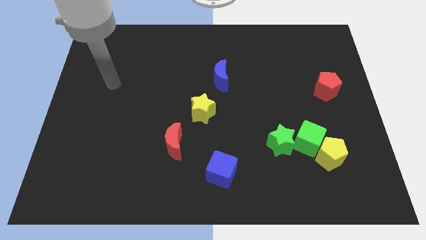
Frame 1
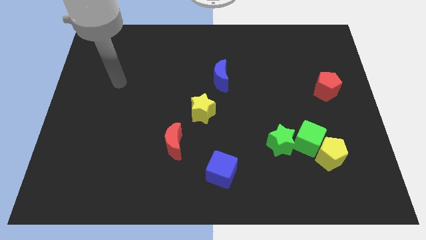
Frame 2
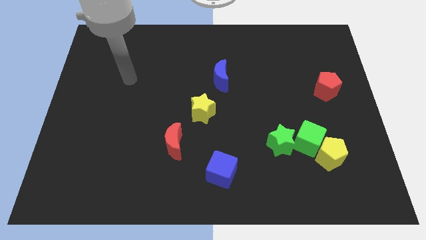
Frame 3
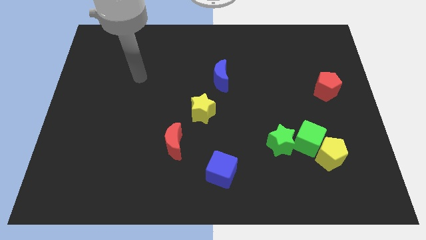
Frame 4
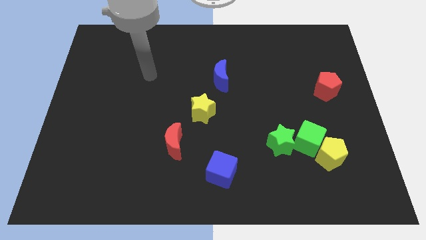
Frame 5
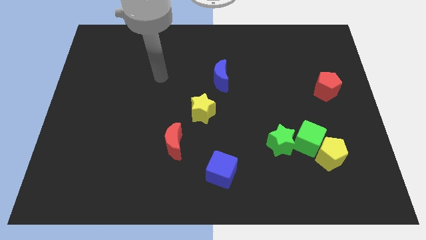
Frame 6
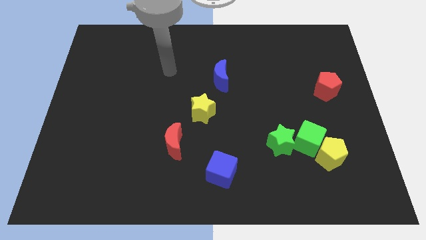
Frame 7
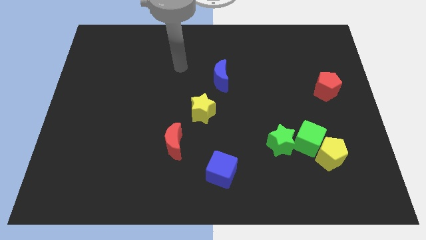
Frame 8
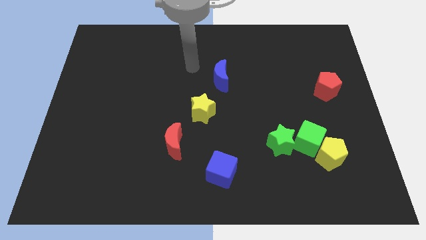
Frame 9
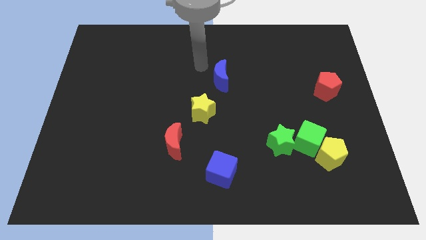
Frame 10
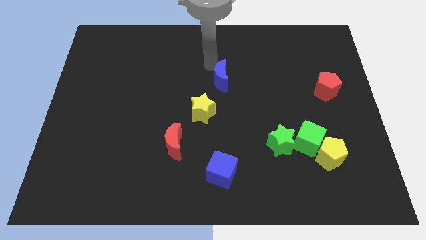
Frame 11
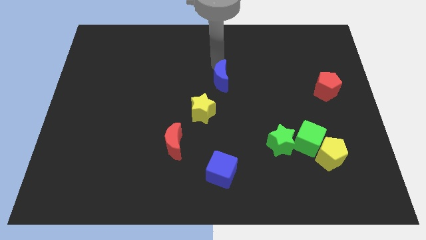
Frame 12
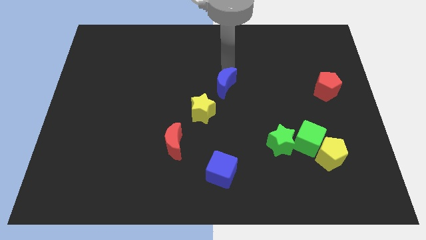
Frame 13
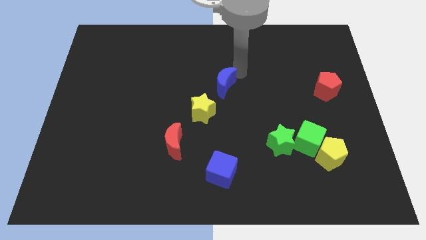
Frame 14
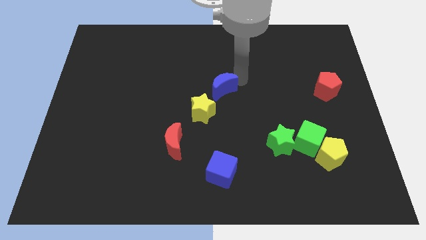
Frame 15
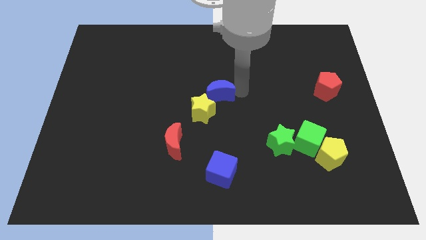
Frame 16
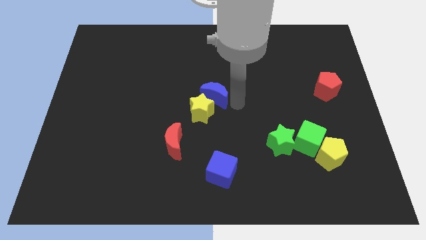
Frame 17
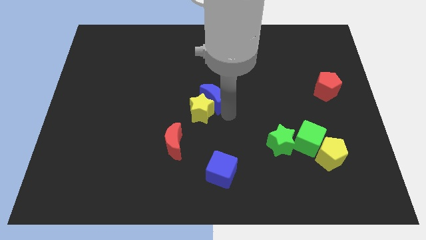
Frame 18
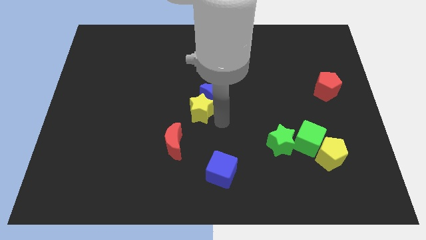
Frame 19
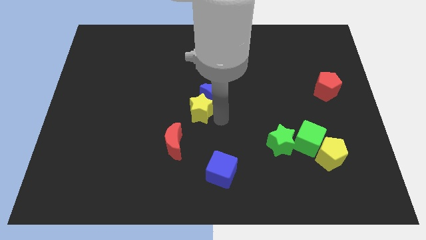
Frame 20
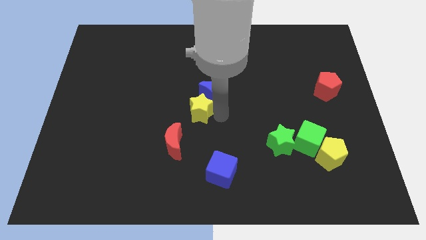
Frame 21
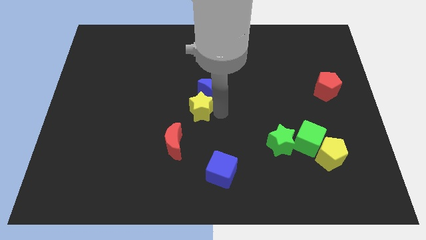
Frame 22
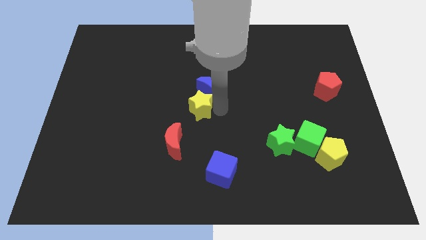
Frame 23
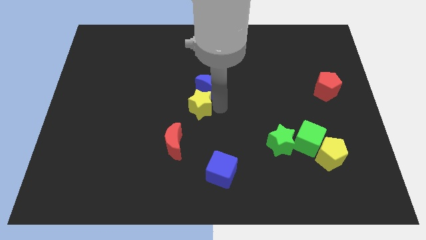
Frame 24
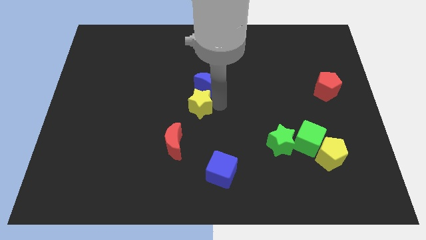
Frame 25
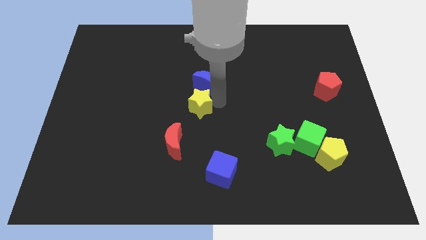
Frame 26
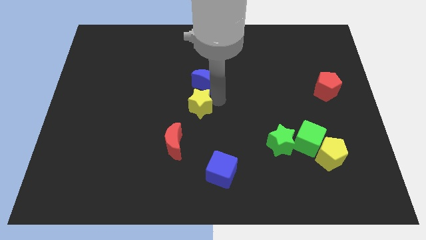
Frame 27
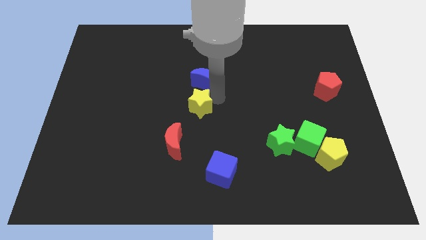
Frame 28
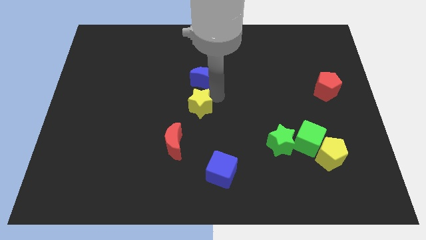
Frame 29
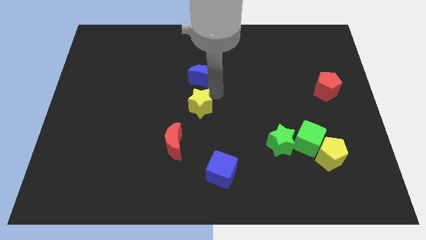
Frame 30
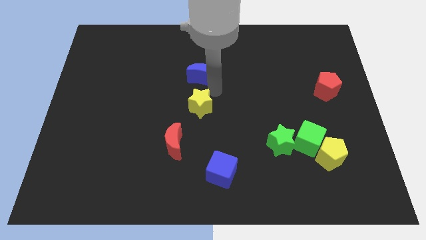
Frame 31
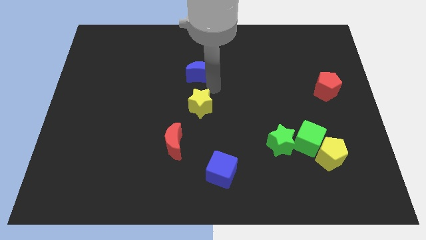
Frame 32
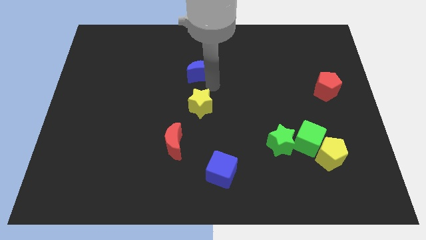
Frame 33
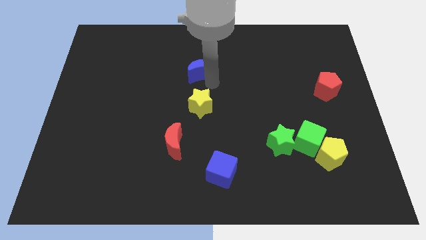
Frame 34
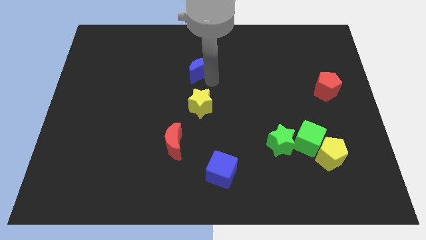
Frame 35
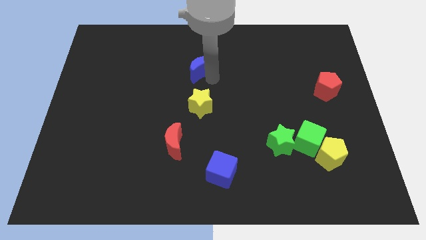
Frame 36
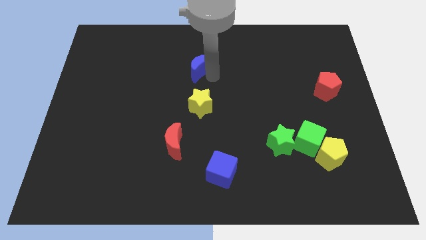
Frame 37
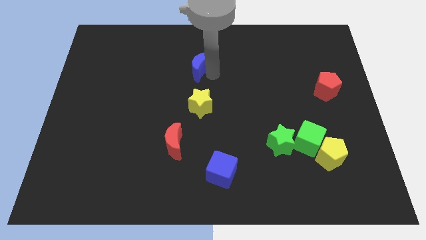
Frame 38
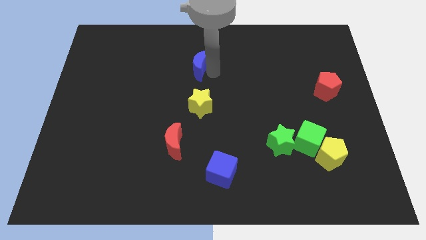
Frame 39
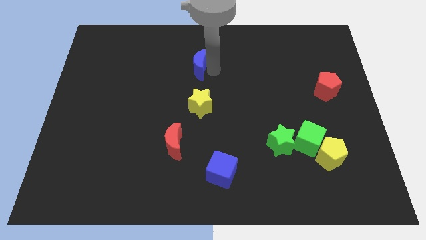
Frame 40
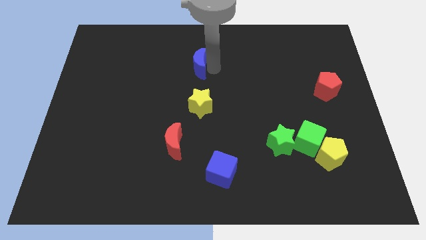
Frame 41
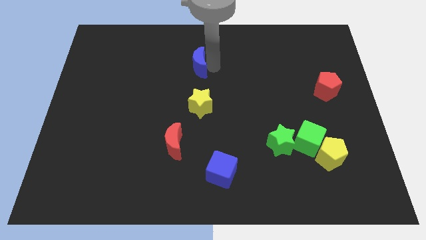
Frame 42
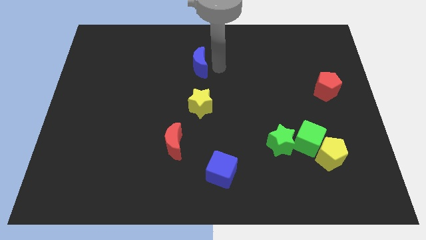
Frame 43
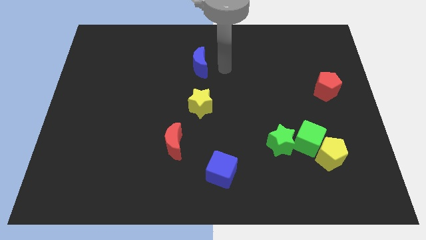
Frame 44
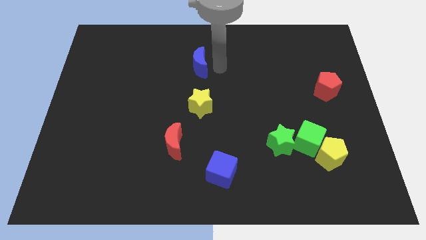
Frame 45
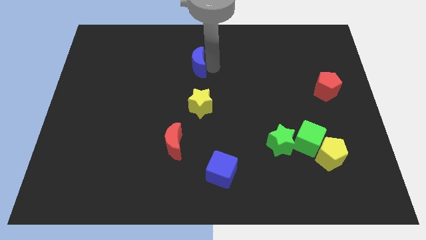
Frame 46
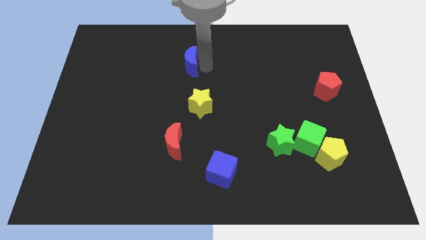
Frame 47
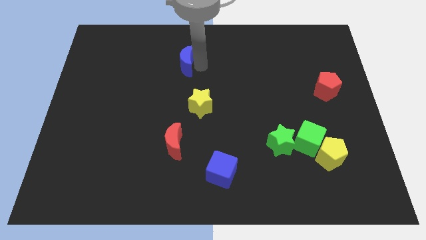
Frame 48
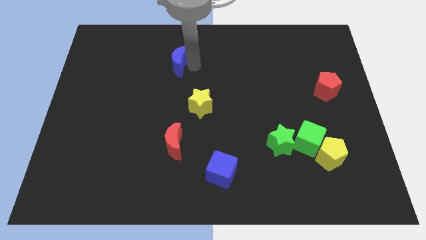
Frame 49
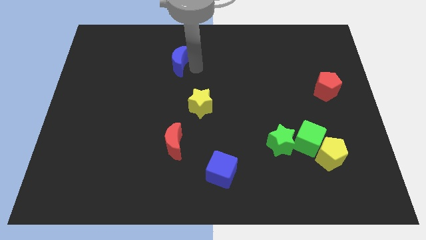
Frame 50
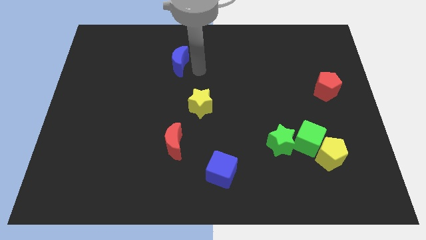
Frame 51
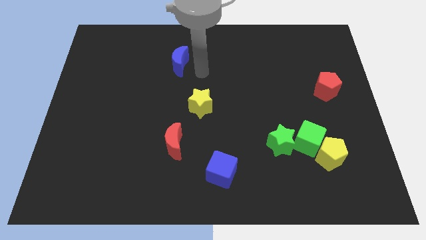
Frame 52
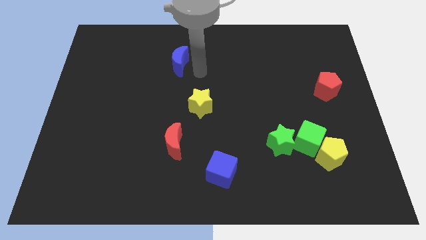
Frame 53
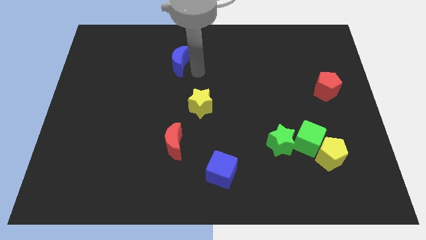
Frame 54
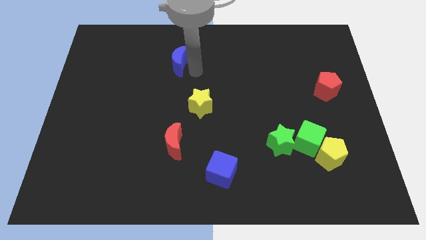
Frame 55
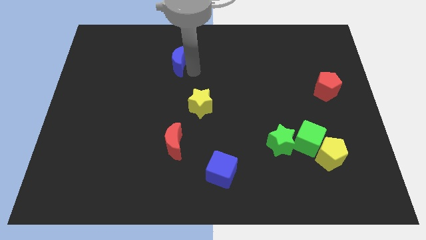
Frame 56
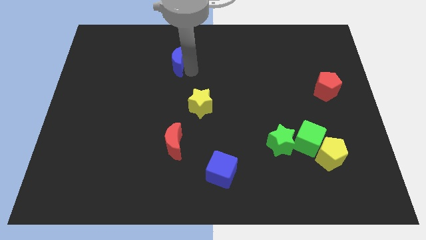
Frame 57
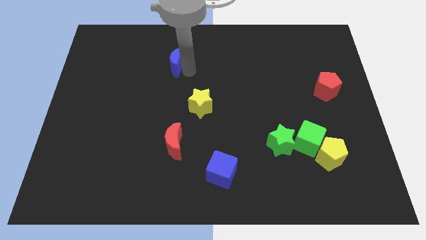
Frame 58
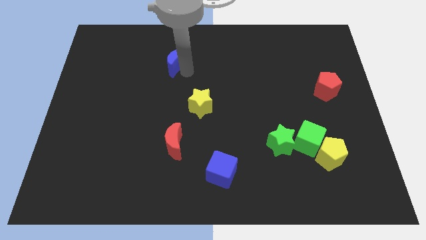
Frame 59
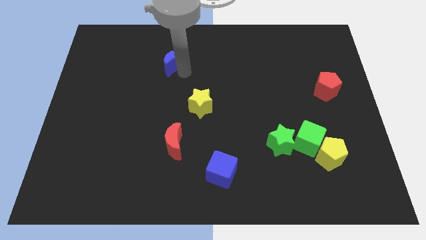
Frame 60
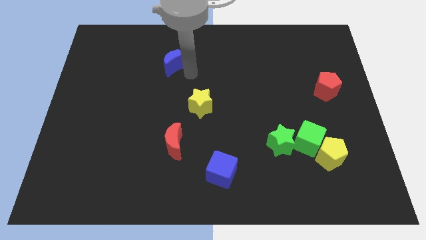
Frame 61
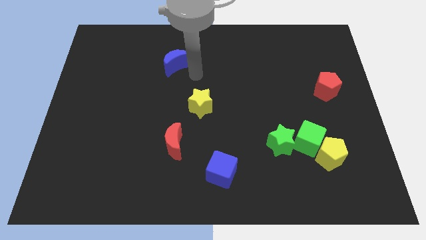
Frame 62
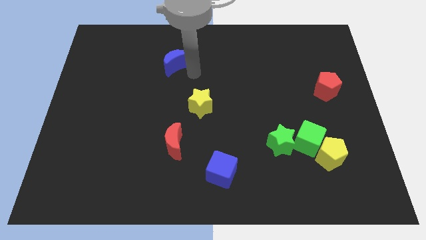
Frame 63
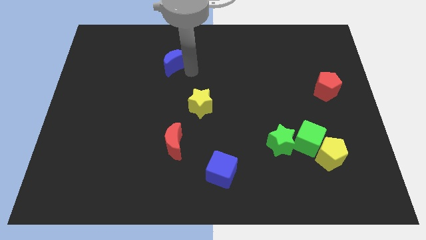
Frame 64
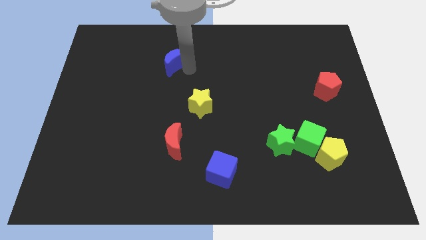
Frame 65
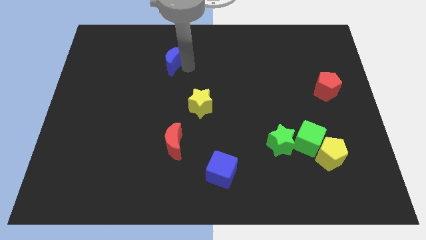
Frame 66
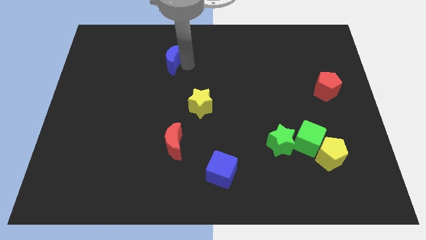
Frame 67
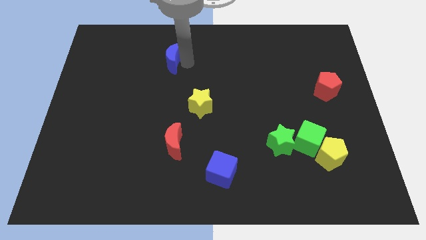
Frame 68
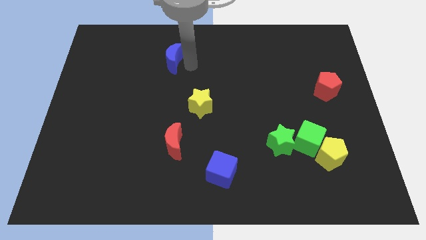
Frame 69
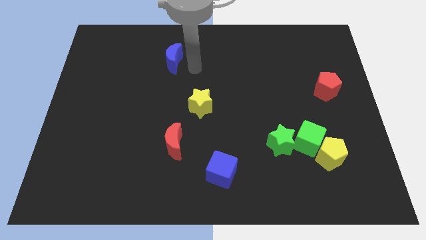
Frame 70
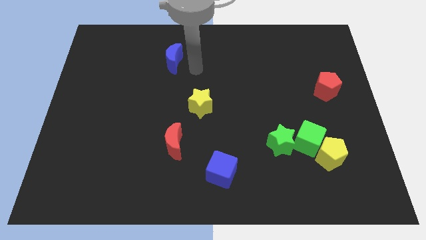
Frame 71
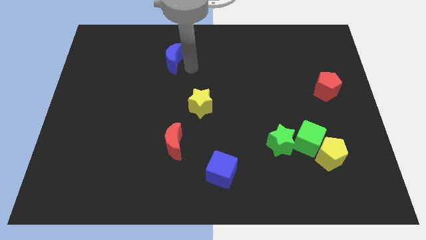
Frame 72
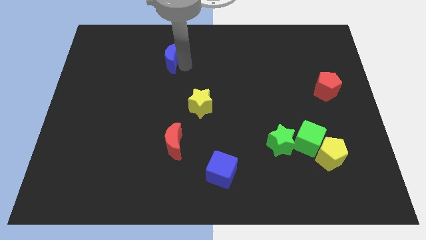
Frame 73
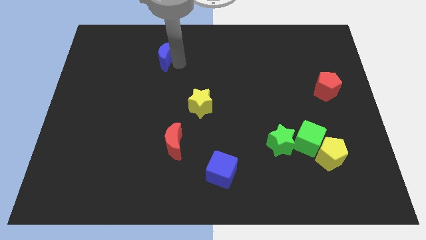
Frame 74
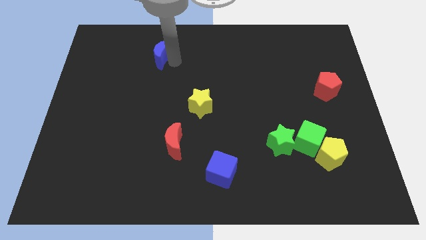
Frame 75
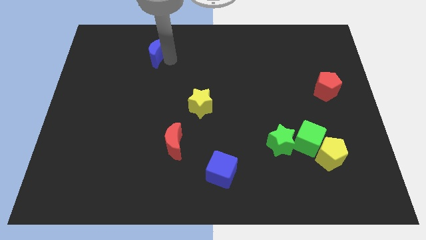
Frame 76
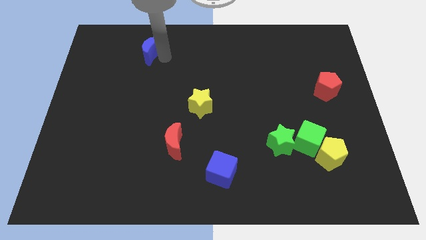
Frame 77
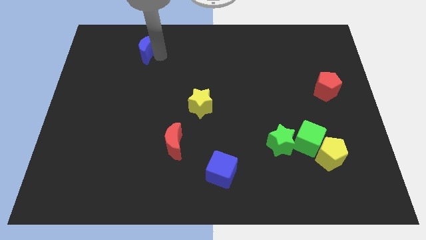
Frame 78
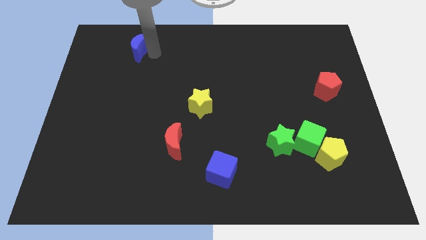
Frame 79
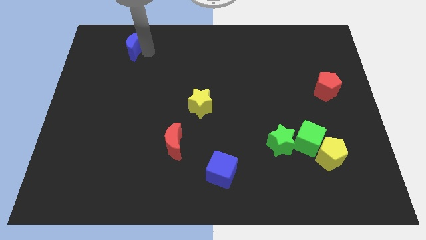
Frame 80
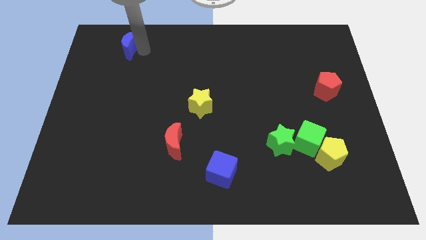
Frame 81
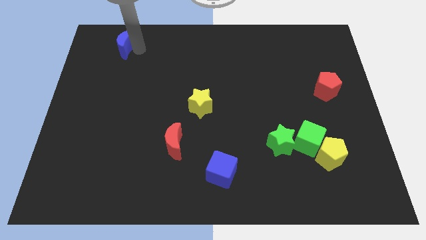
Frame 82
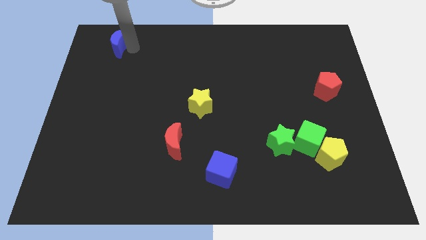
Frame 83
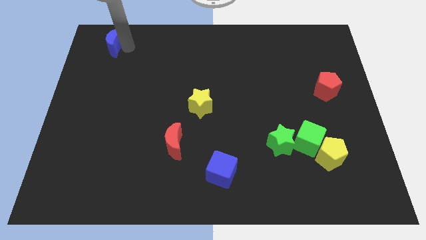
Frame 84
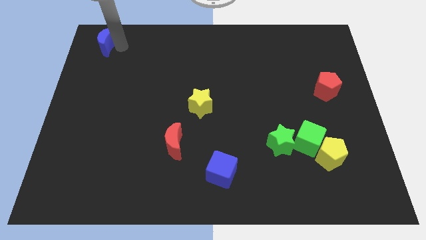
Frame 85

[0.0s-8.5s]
slide the blue moon to the top left corner
